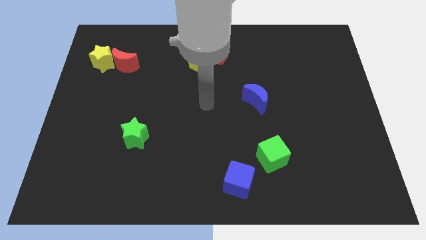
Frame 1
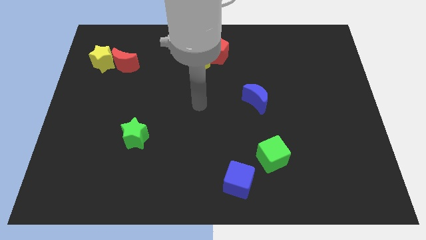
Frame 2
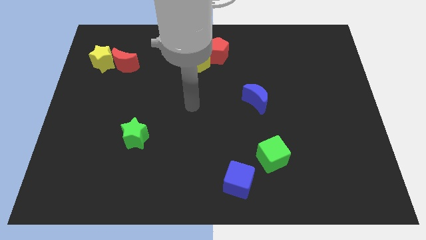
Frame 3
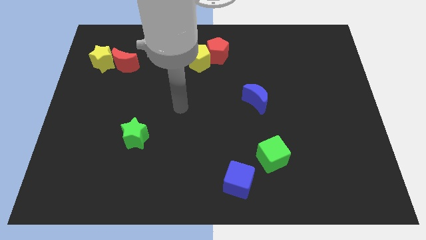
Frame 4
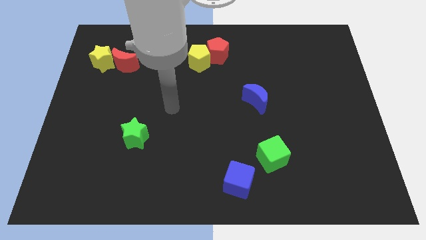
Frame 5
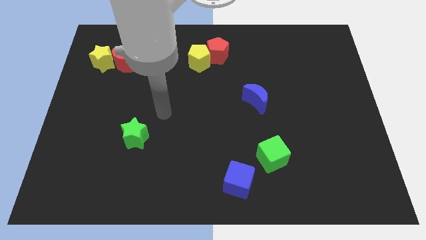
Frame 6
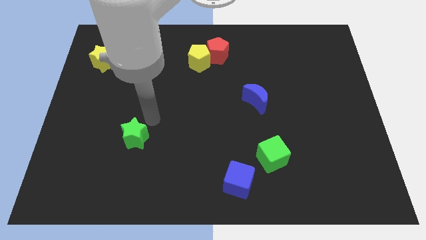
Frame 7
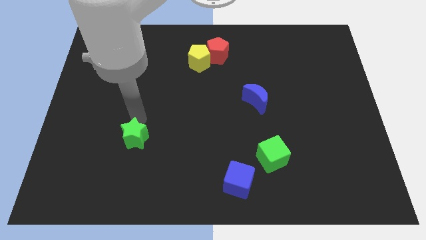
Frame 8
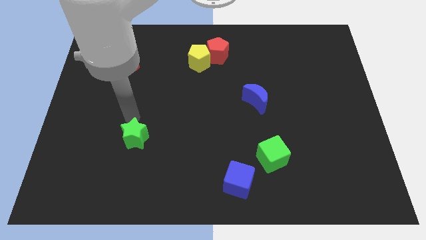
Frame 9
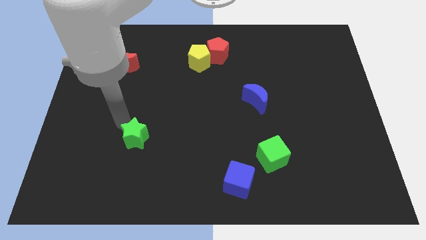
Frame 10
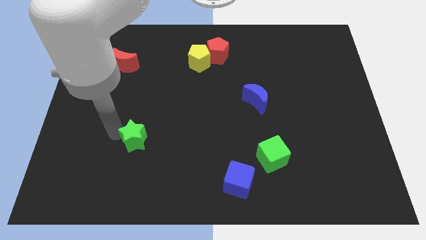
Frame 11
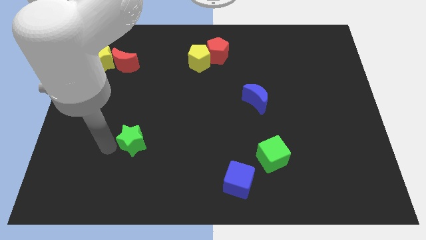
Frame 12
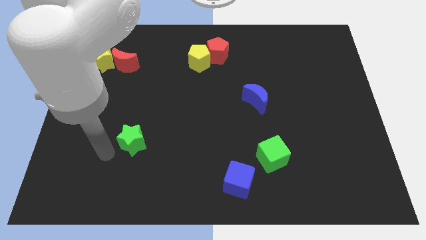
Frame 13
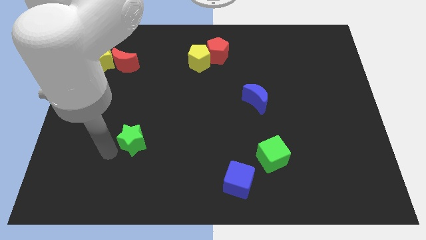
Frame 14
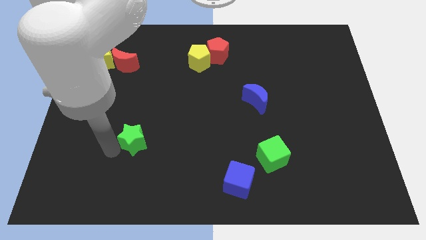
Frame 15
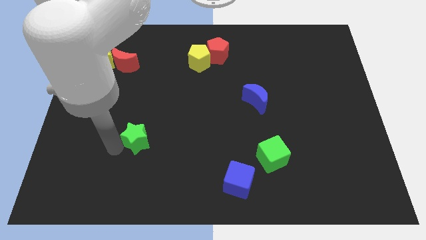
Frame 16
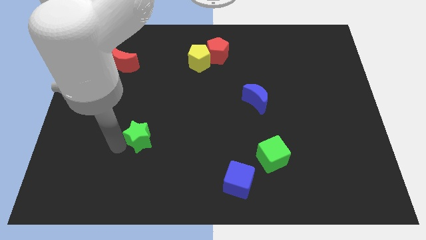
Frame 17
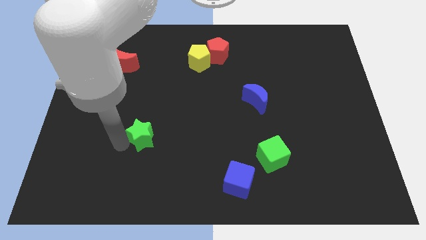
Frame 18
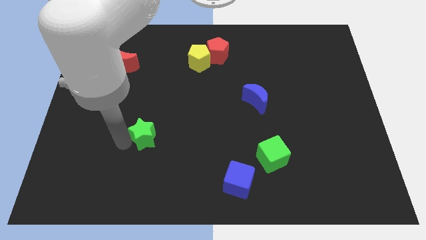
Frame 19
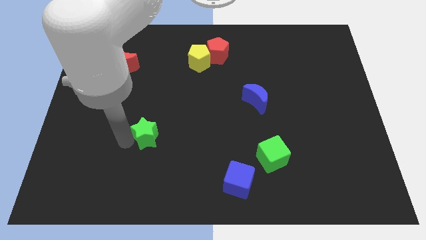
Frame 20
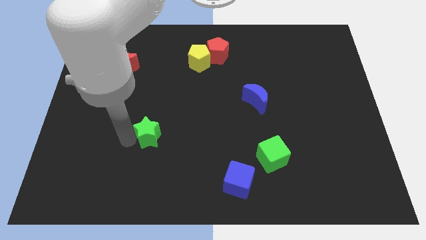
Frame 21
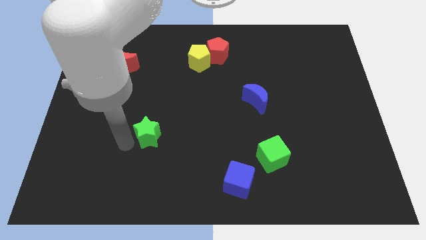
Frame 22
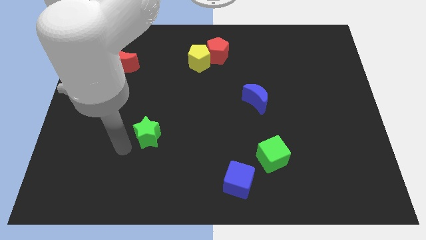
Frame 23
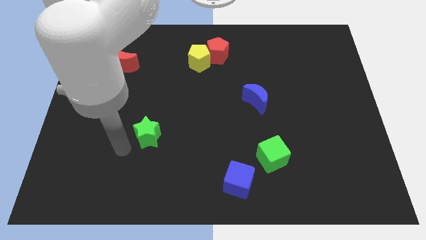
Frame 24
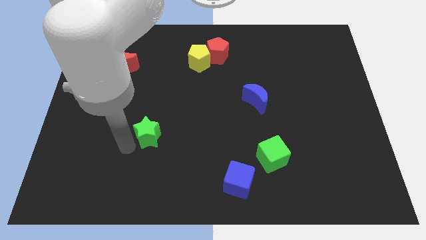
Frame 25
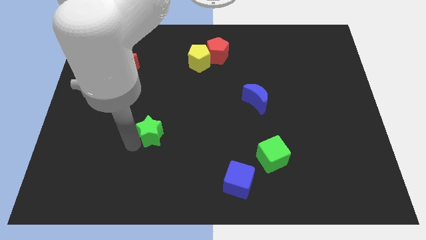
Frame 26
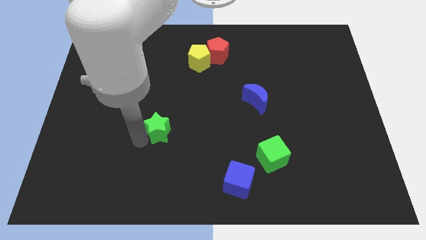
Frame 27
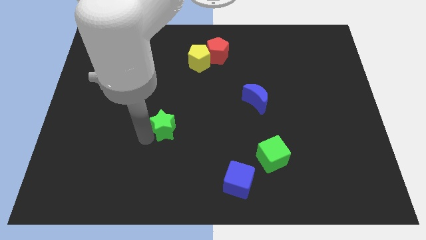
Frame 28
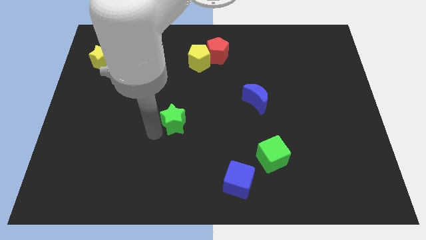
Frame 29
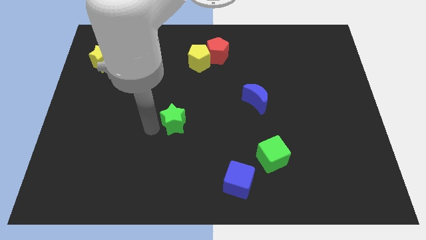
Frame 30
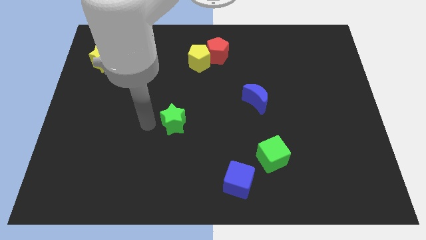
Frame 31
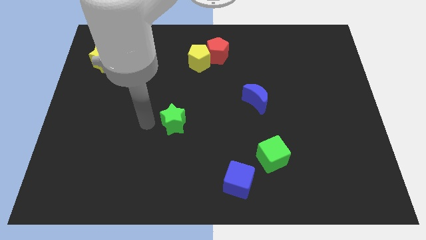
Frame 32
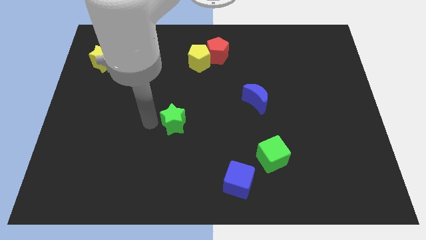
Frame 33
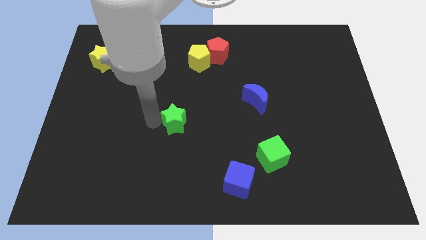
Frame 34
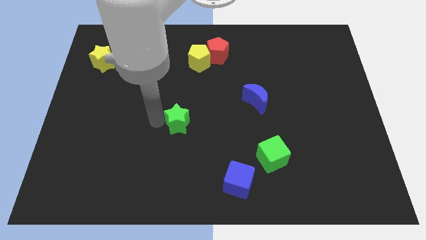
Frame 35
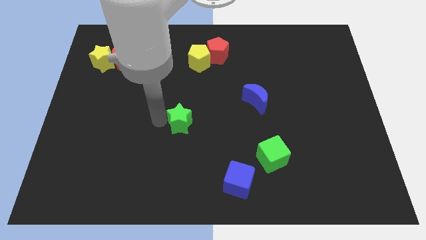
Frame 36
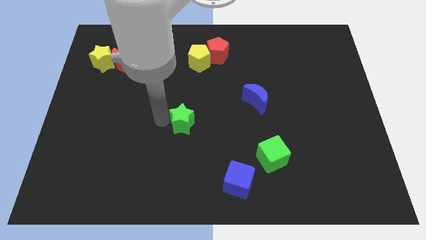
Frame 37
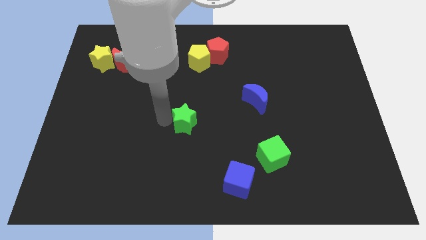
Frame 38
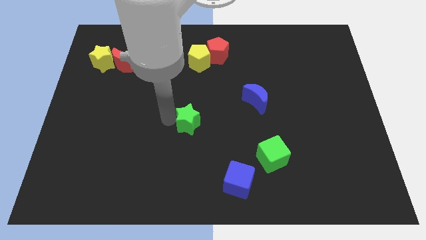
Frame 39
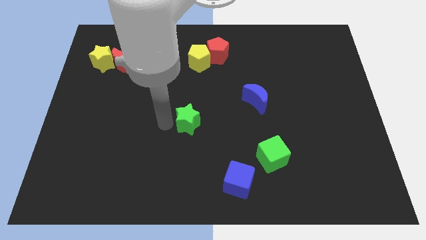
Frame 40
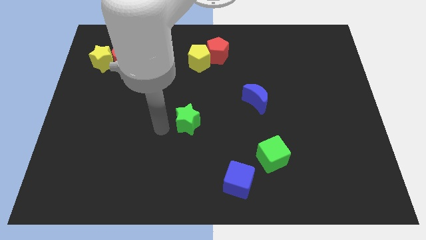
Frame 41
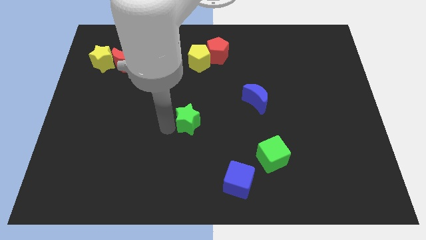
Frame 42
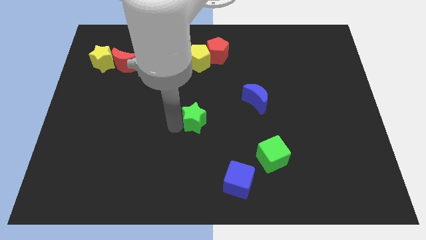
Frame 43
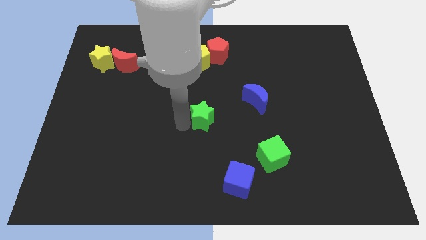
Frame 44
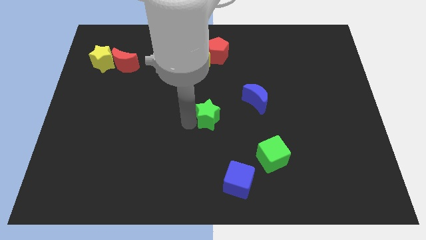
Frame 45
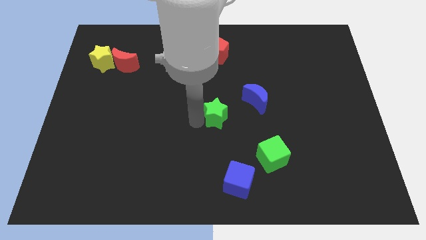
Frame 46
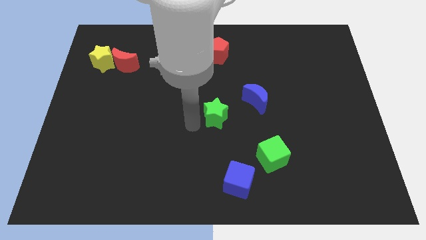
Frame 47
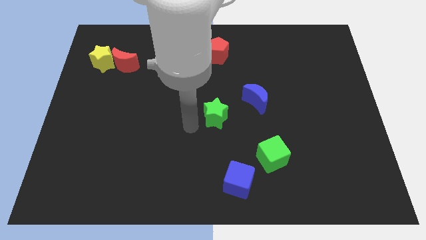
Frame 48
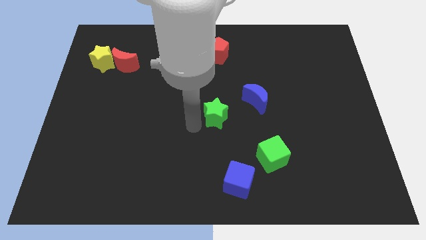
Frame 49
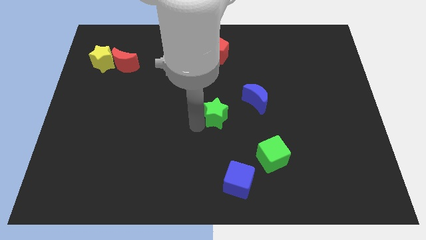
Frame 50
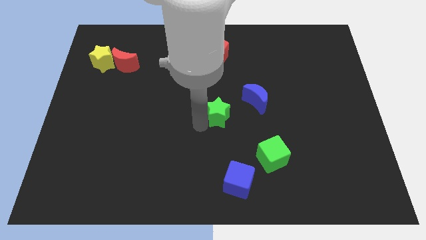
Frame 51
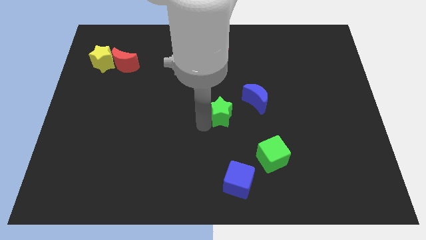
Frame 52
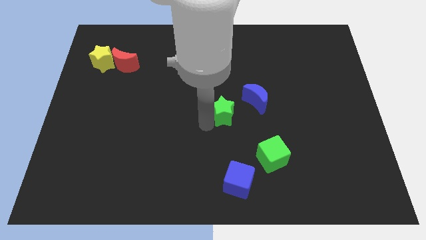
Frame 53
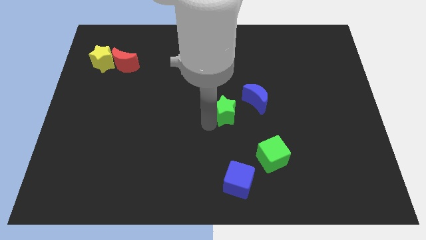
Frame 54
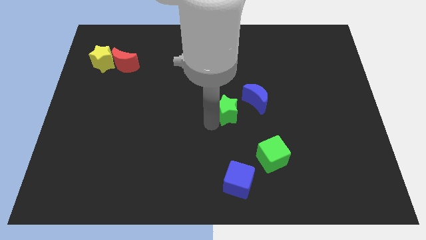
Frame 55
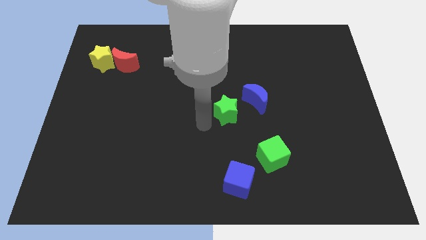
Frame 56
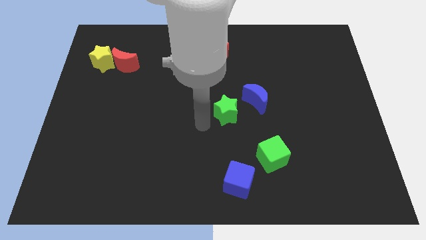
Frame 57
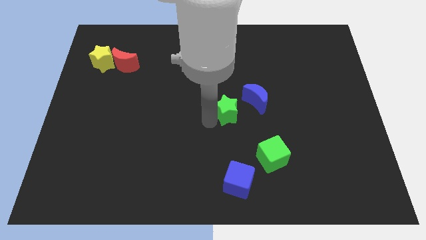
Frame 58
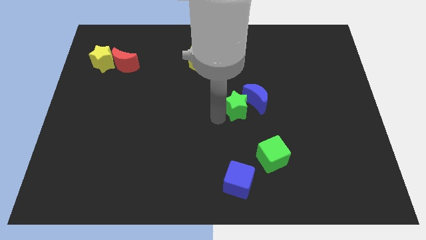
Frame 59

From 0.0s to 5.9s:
slide the green star towards the blue moon

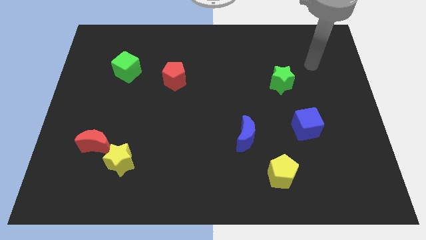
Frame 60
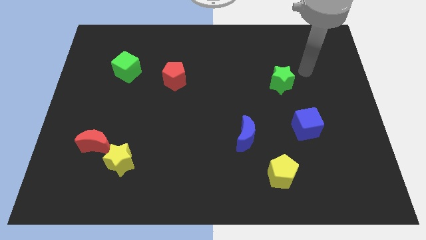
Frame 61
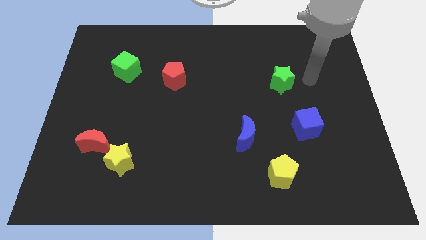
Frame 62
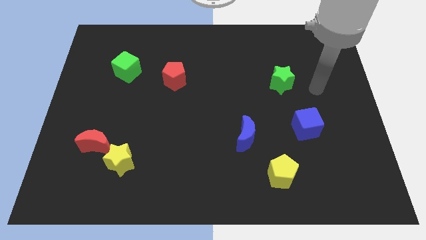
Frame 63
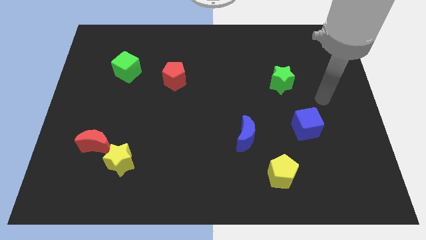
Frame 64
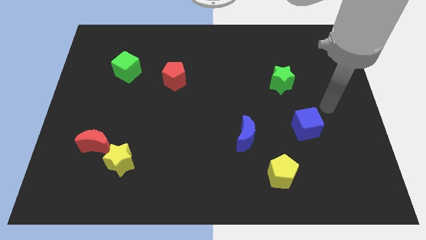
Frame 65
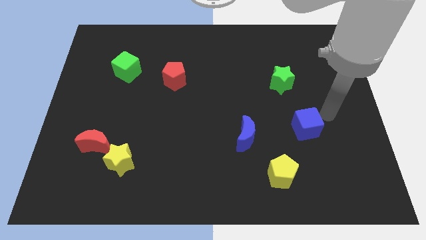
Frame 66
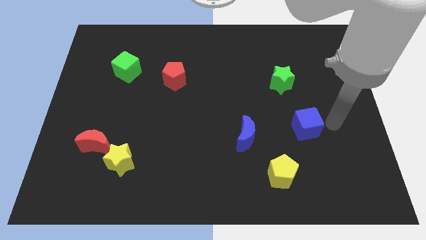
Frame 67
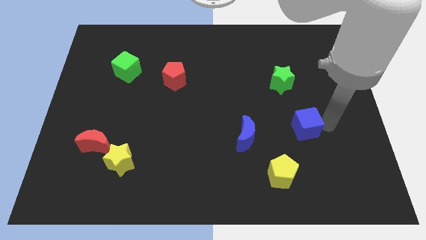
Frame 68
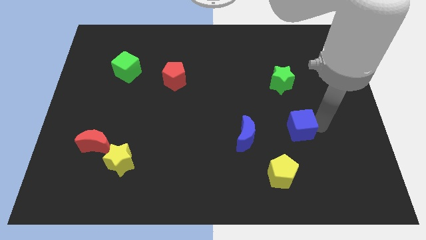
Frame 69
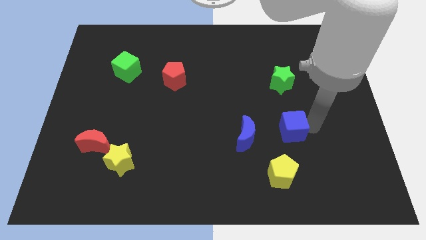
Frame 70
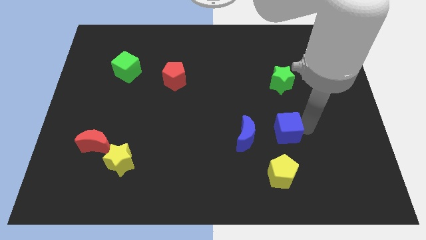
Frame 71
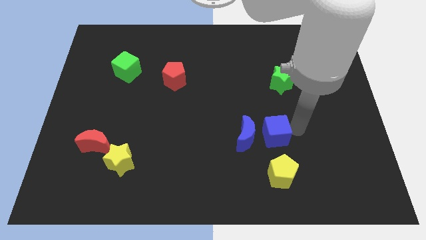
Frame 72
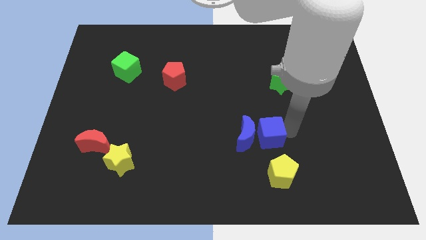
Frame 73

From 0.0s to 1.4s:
slide the blue cube close to the blue moon
